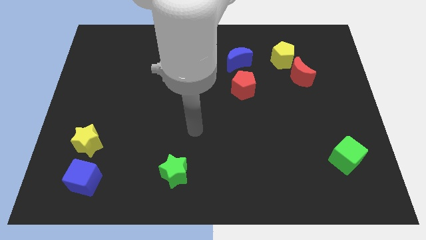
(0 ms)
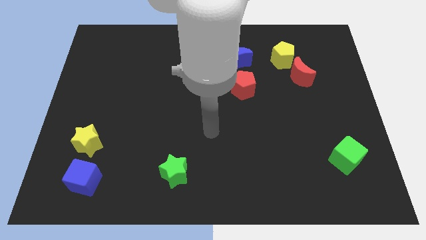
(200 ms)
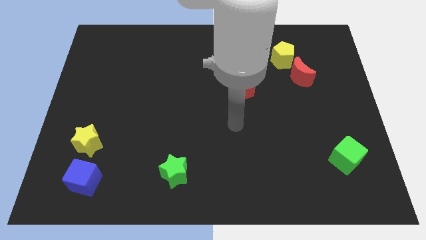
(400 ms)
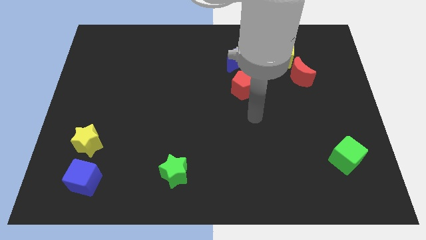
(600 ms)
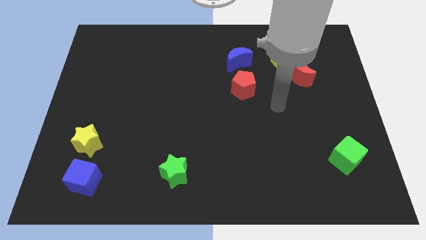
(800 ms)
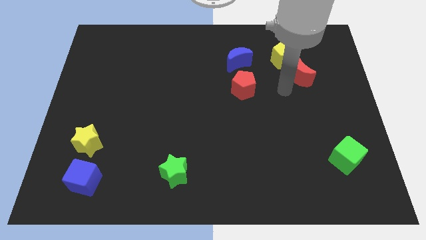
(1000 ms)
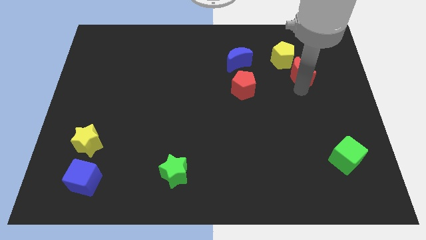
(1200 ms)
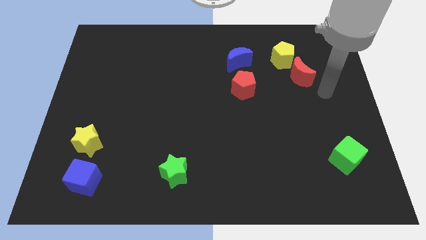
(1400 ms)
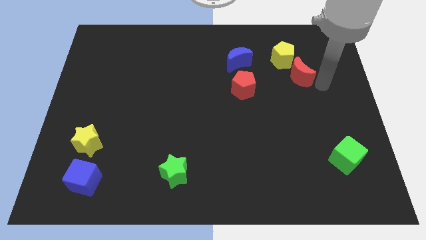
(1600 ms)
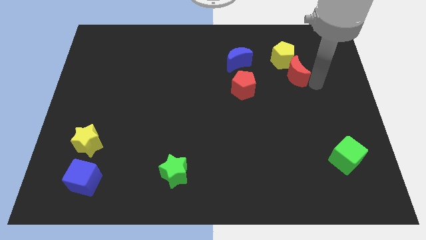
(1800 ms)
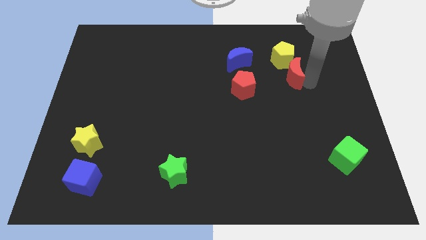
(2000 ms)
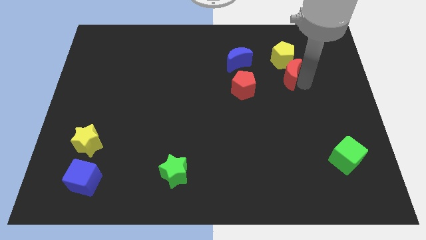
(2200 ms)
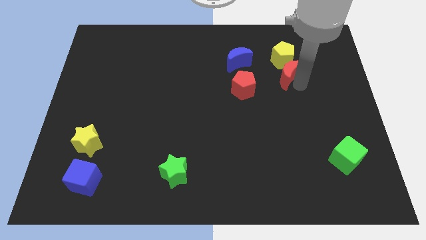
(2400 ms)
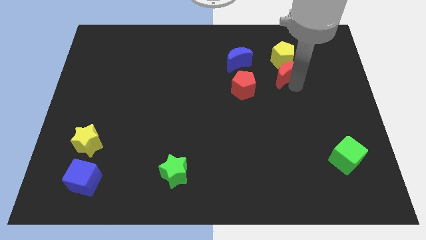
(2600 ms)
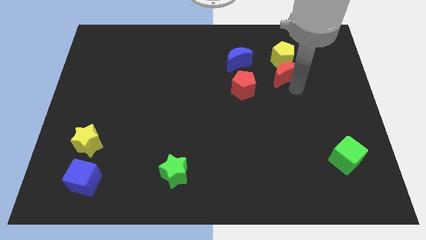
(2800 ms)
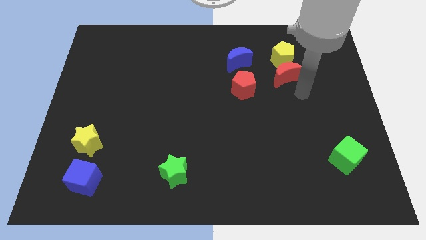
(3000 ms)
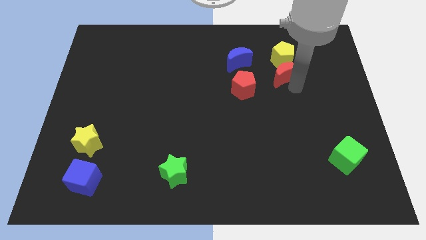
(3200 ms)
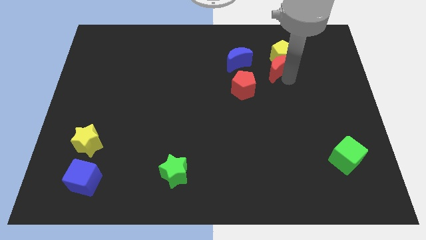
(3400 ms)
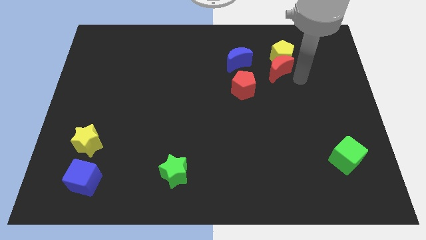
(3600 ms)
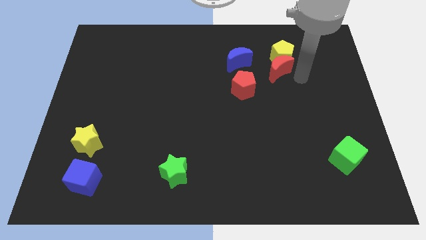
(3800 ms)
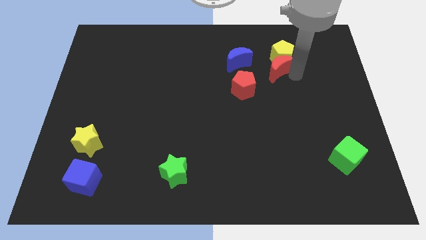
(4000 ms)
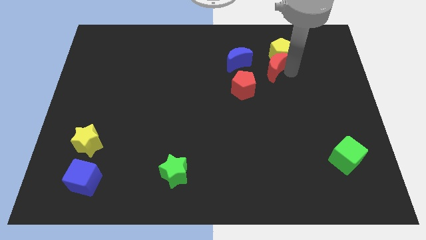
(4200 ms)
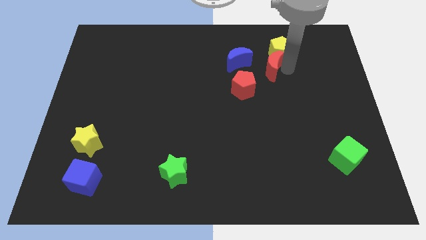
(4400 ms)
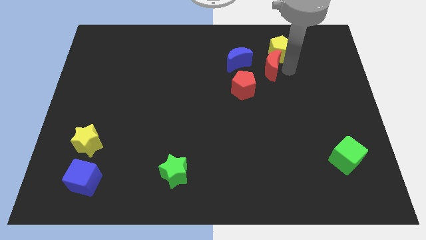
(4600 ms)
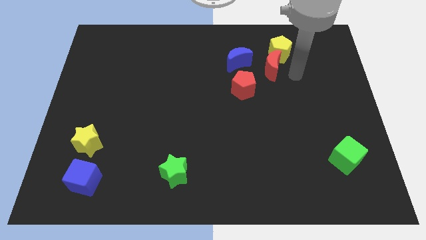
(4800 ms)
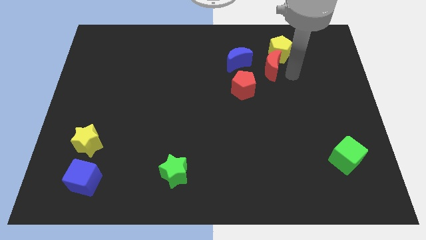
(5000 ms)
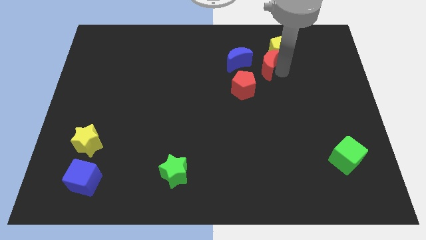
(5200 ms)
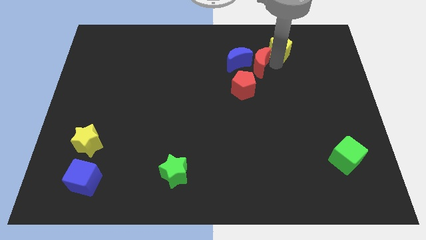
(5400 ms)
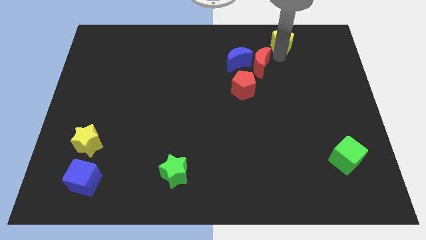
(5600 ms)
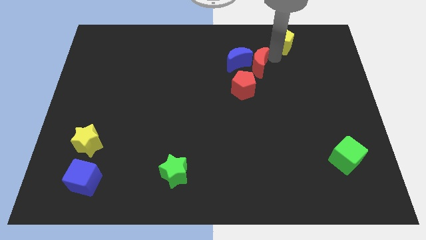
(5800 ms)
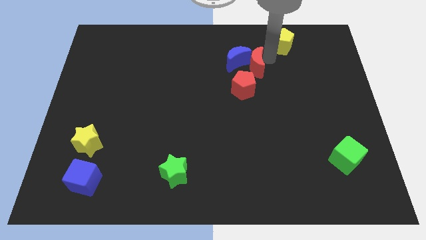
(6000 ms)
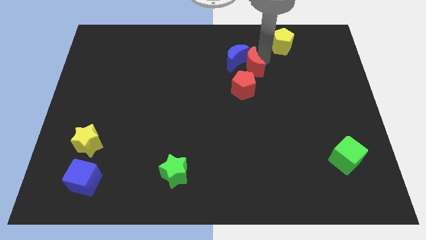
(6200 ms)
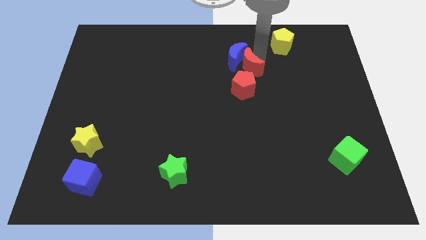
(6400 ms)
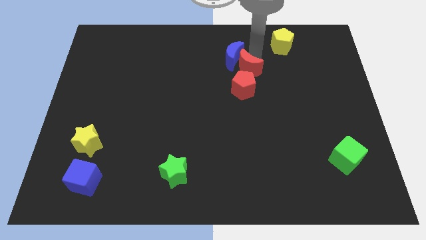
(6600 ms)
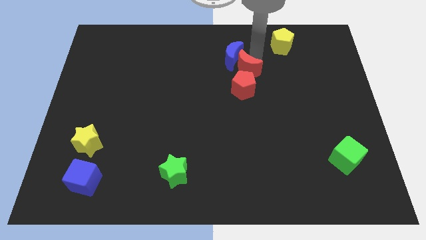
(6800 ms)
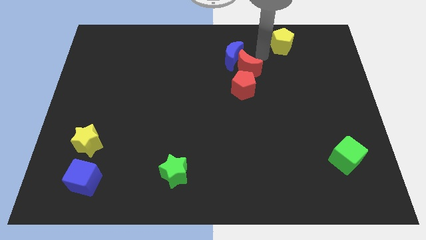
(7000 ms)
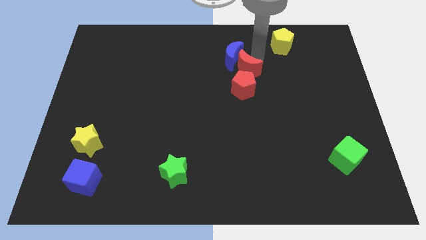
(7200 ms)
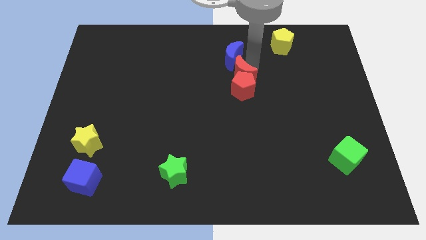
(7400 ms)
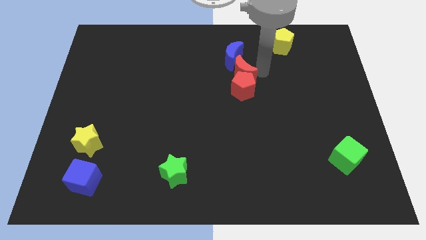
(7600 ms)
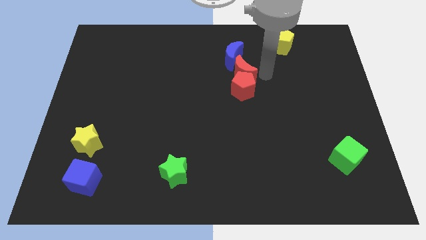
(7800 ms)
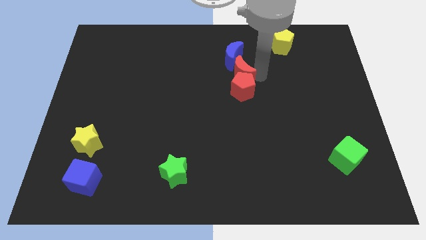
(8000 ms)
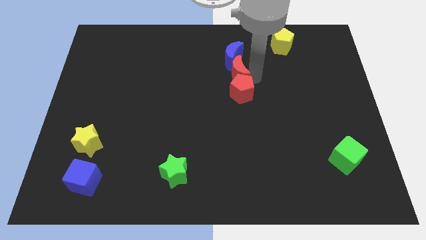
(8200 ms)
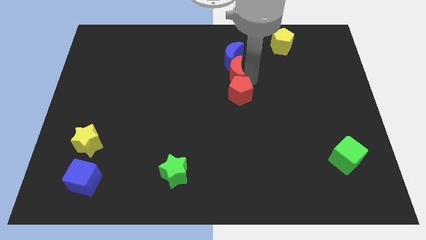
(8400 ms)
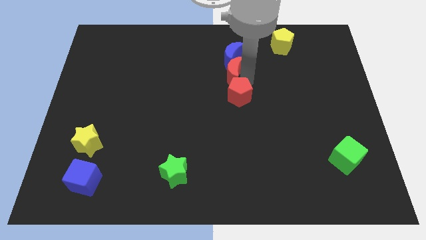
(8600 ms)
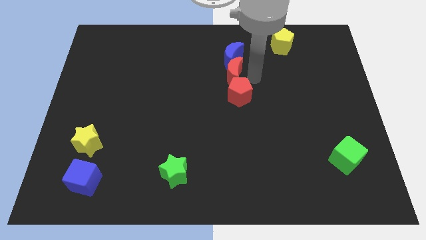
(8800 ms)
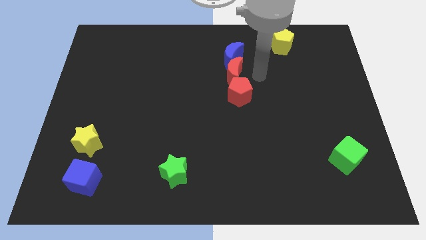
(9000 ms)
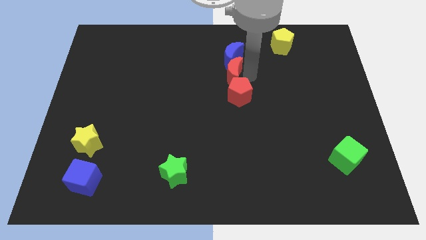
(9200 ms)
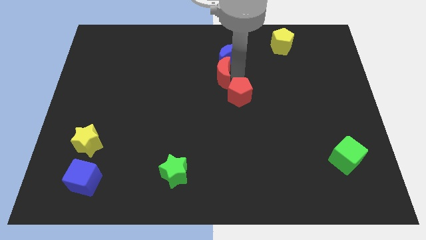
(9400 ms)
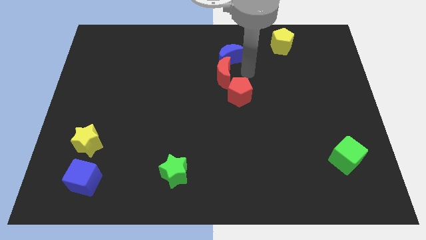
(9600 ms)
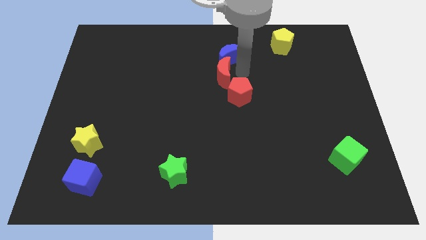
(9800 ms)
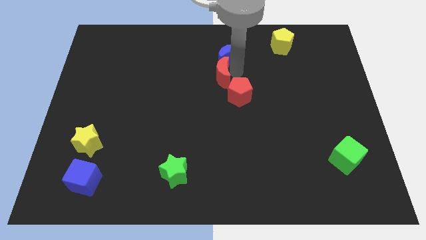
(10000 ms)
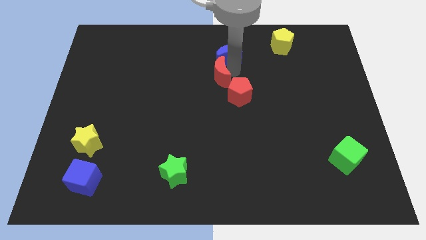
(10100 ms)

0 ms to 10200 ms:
slide the red moon to the left

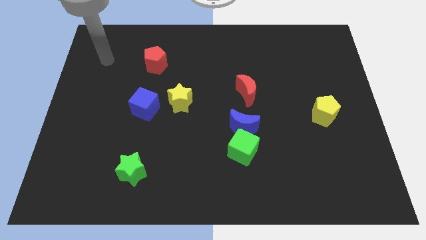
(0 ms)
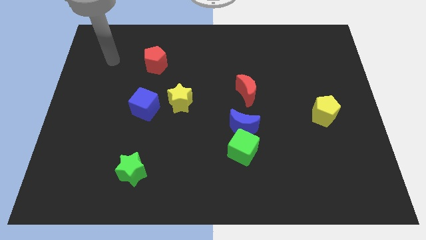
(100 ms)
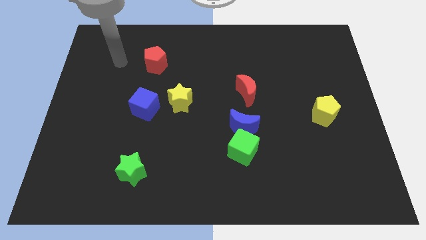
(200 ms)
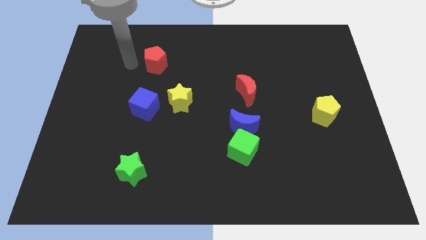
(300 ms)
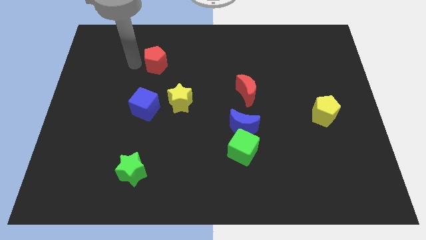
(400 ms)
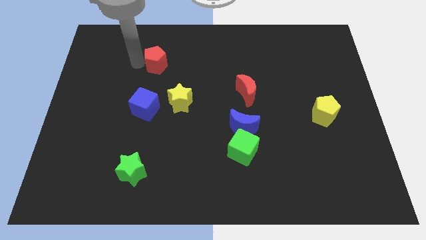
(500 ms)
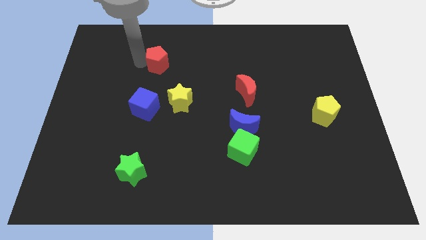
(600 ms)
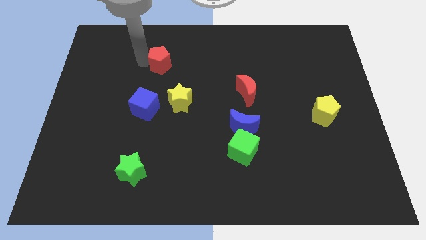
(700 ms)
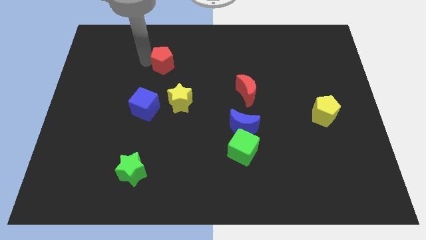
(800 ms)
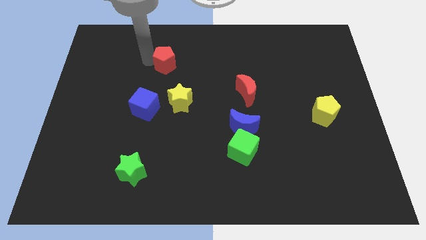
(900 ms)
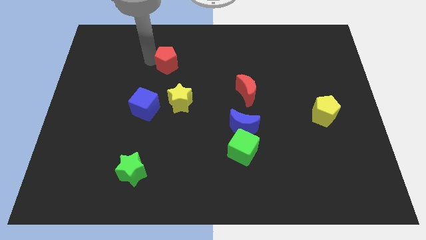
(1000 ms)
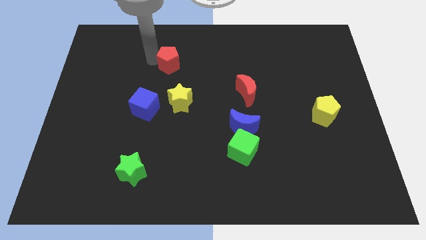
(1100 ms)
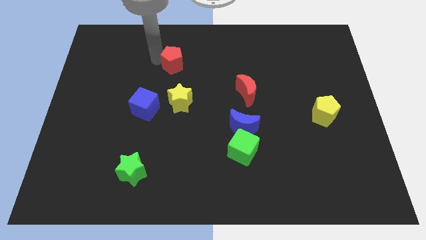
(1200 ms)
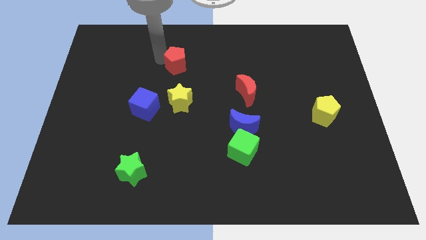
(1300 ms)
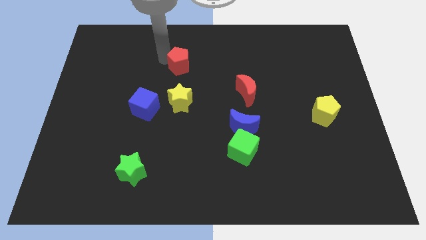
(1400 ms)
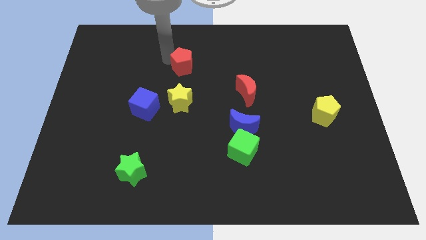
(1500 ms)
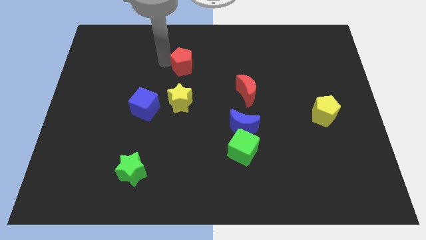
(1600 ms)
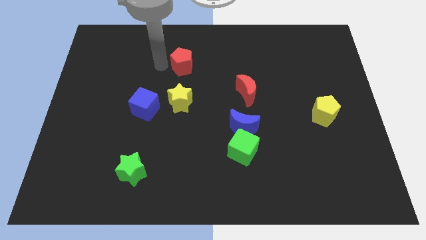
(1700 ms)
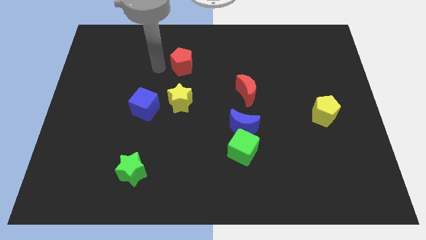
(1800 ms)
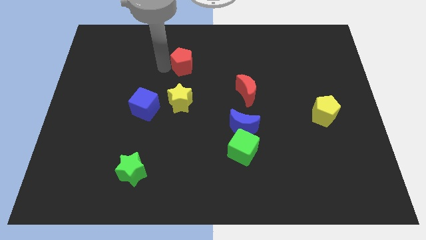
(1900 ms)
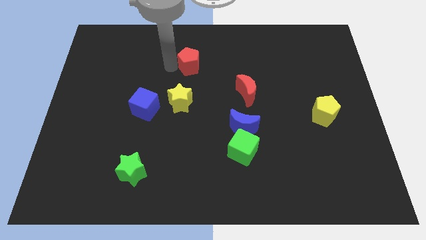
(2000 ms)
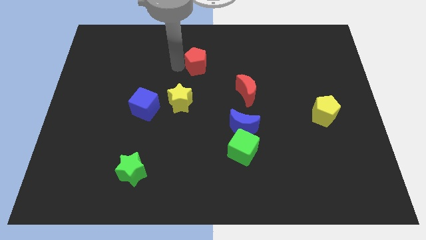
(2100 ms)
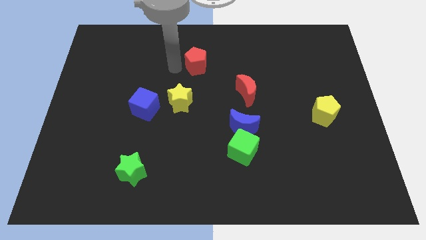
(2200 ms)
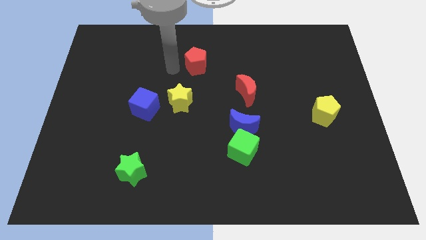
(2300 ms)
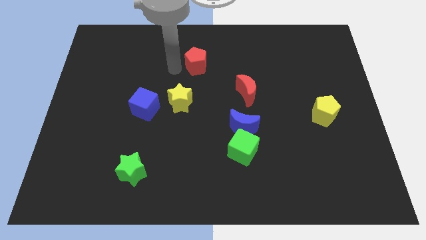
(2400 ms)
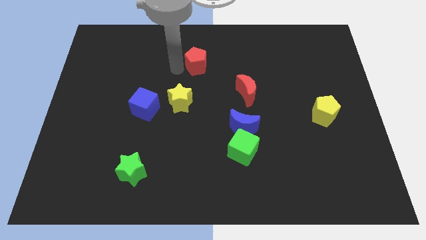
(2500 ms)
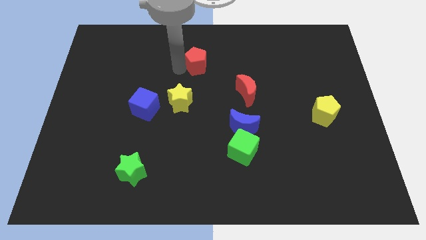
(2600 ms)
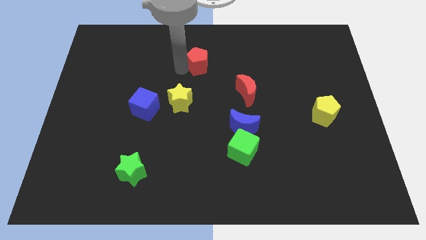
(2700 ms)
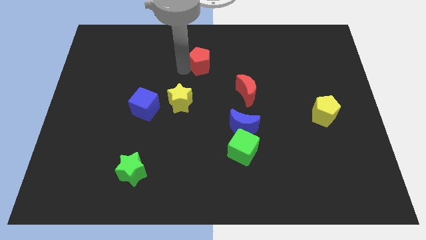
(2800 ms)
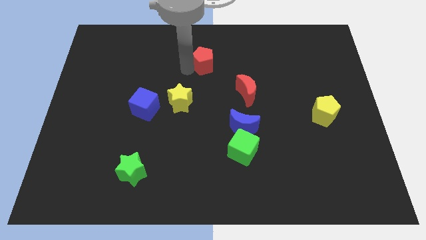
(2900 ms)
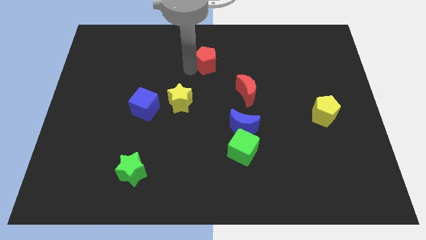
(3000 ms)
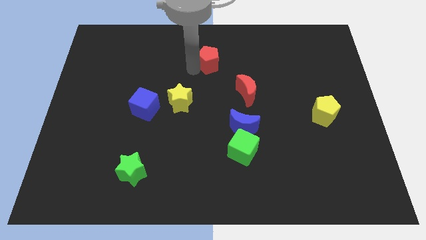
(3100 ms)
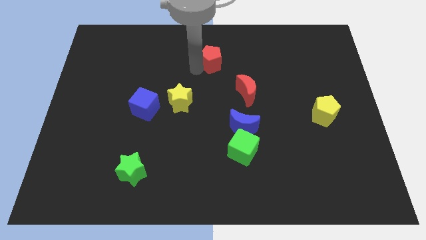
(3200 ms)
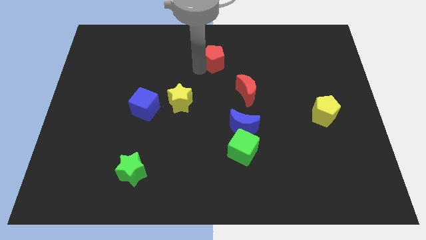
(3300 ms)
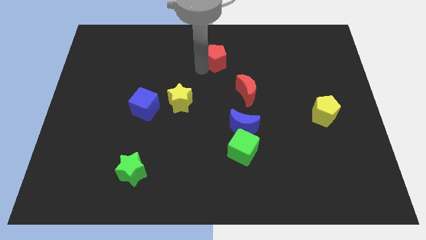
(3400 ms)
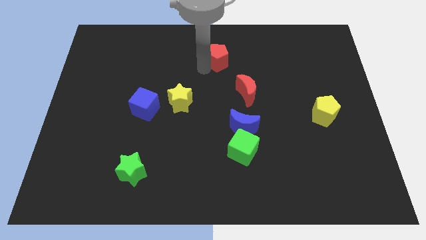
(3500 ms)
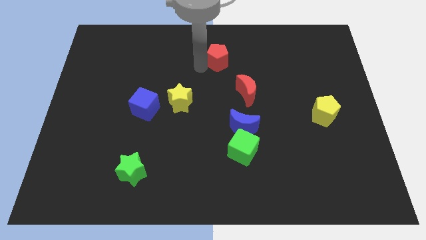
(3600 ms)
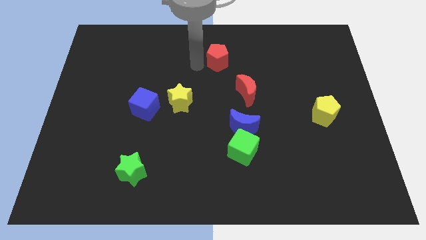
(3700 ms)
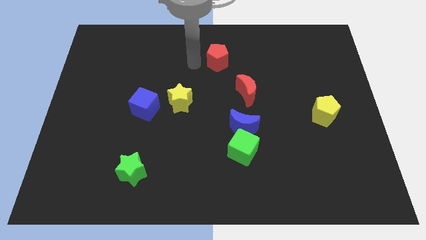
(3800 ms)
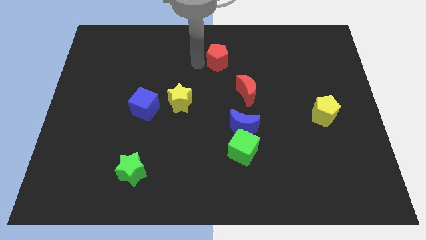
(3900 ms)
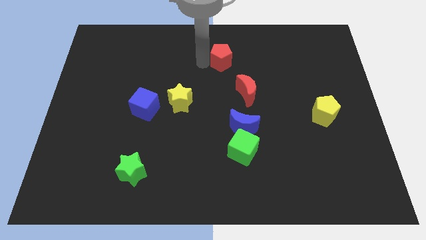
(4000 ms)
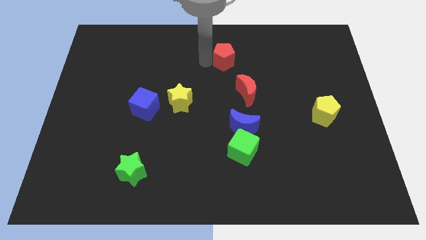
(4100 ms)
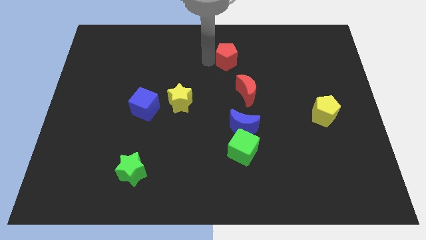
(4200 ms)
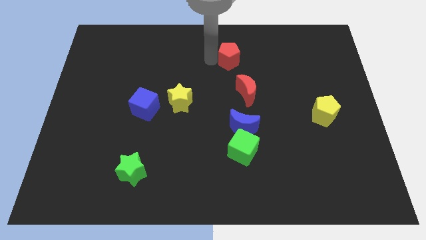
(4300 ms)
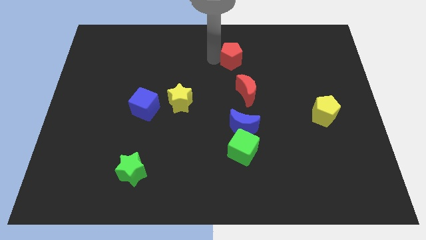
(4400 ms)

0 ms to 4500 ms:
slide the red pentagon to the right
